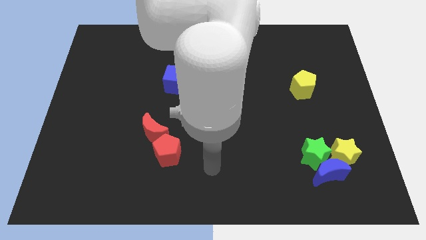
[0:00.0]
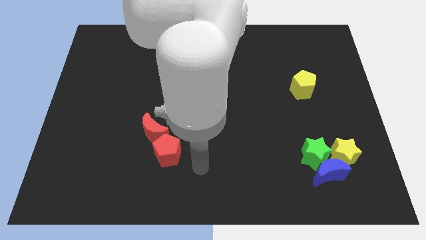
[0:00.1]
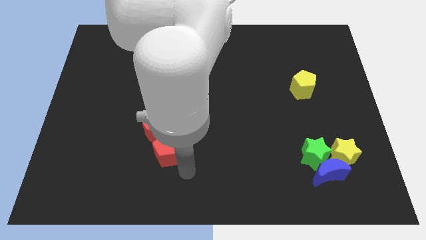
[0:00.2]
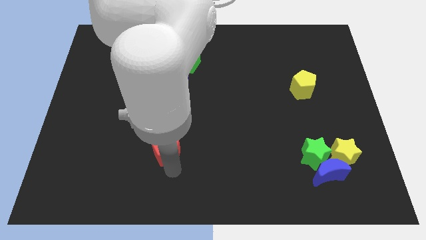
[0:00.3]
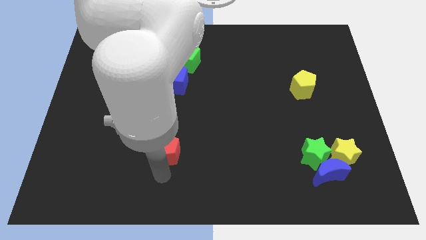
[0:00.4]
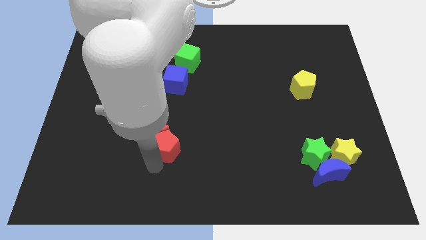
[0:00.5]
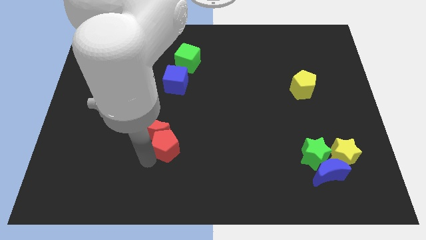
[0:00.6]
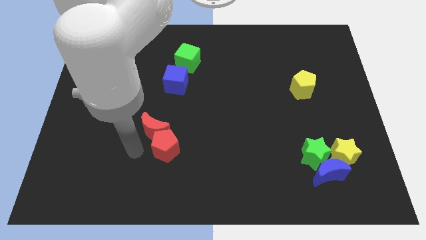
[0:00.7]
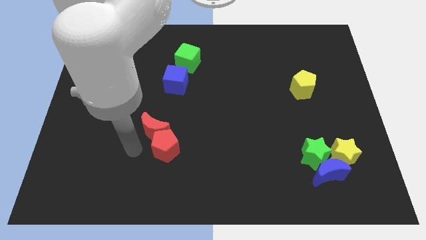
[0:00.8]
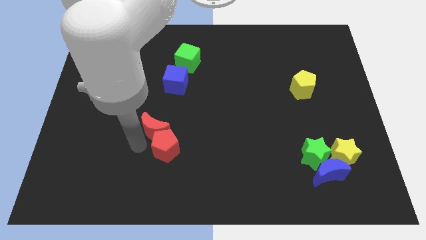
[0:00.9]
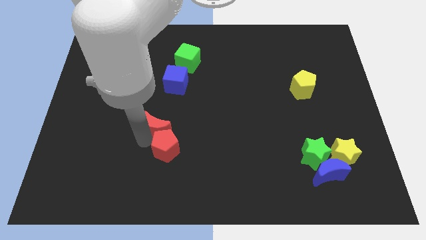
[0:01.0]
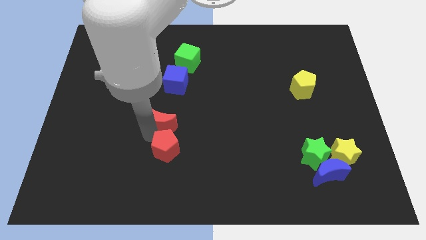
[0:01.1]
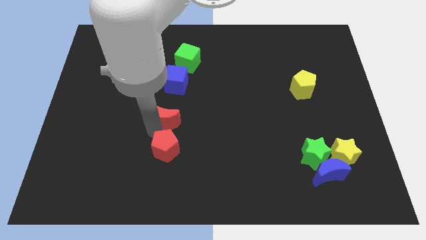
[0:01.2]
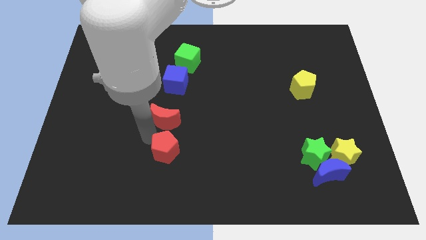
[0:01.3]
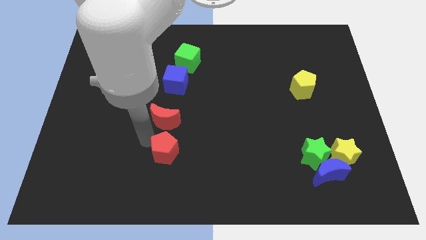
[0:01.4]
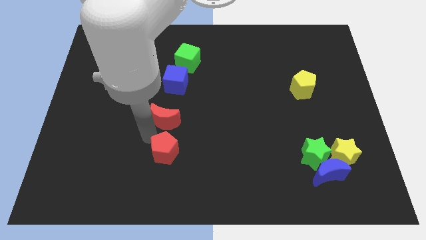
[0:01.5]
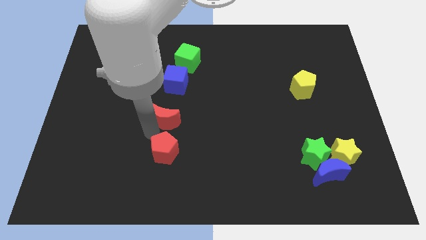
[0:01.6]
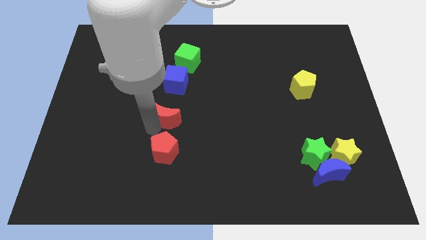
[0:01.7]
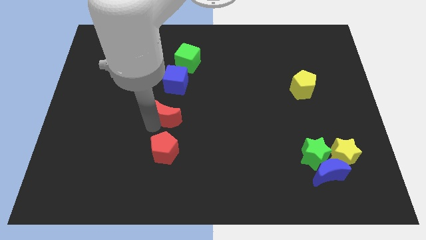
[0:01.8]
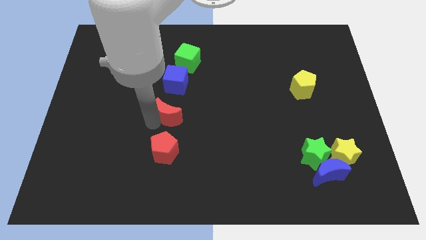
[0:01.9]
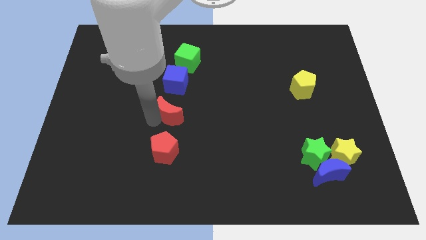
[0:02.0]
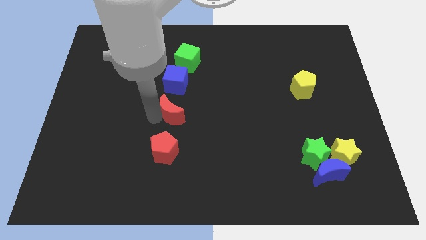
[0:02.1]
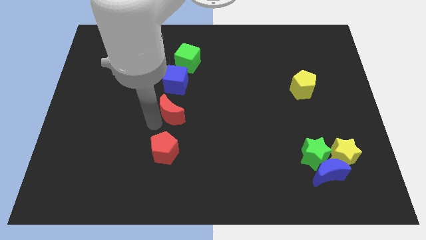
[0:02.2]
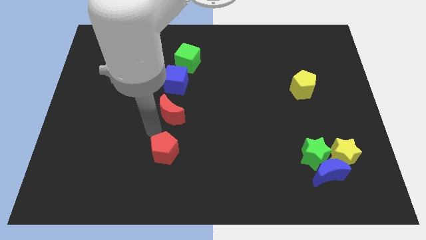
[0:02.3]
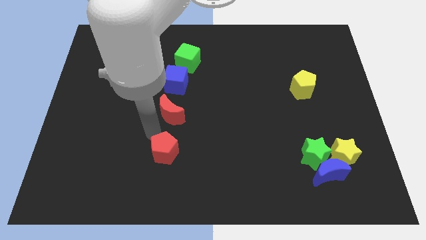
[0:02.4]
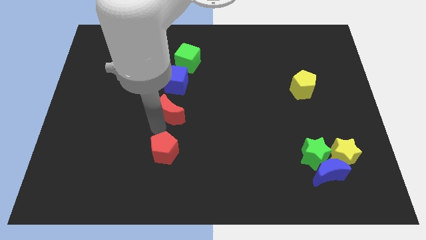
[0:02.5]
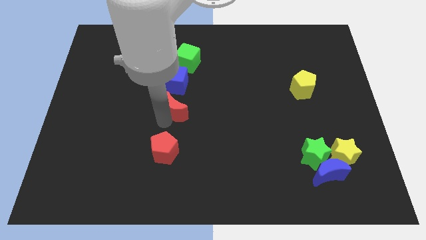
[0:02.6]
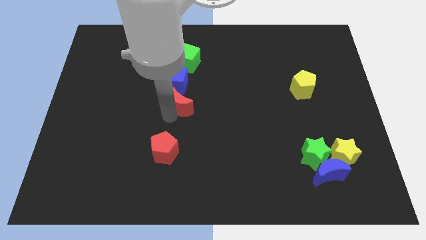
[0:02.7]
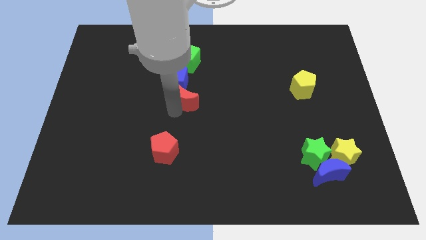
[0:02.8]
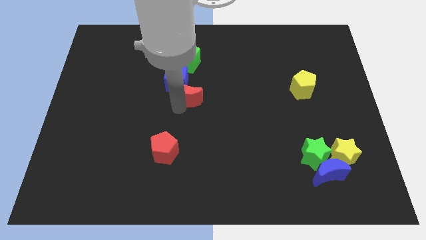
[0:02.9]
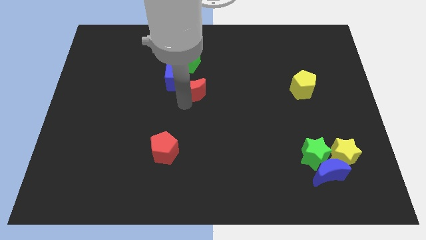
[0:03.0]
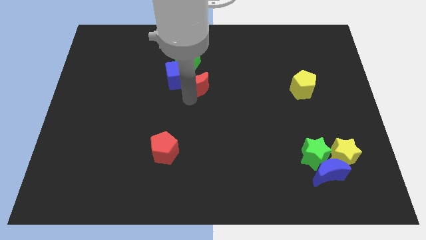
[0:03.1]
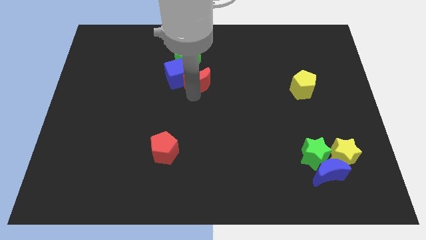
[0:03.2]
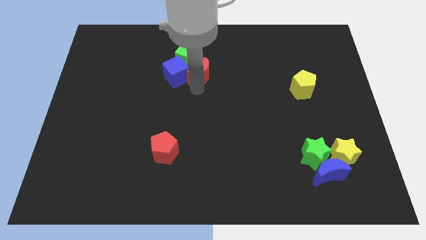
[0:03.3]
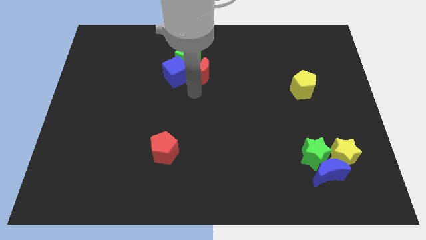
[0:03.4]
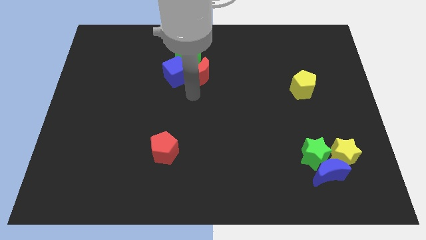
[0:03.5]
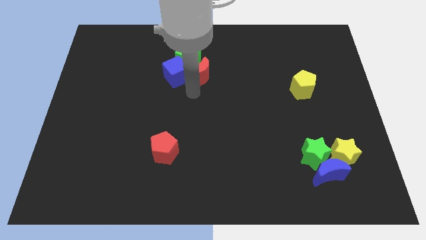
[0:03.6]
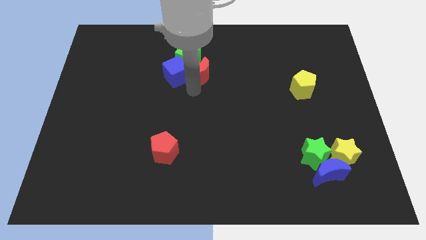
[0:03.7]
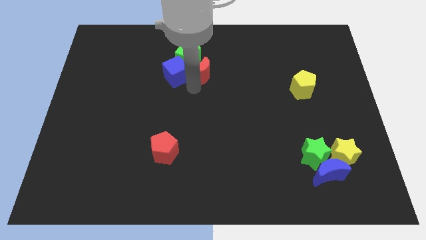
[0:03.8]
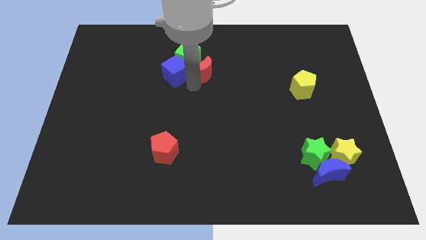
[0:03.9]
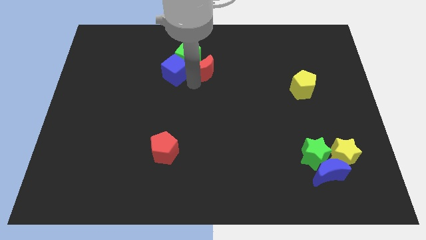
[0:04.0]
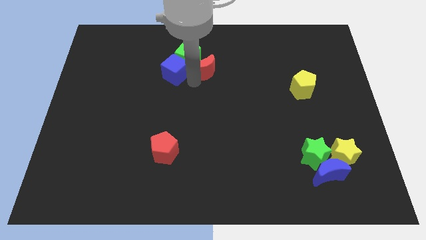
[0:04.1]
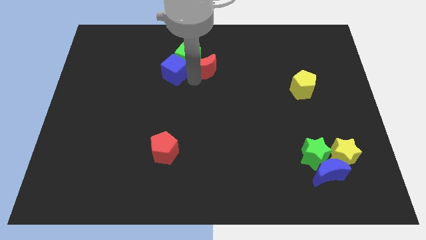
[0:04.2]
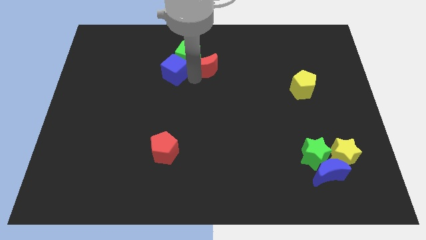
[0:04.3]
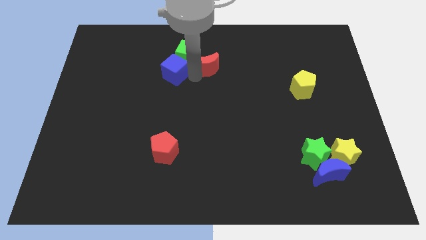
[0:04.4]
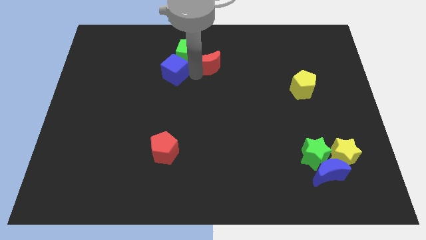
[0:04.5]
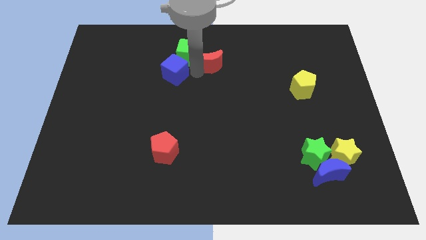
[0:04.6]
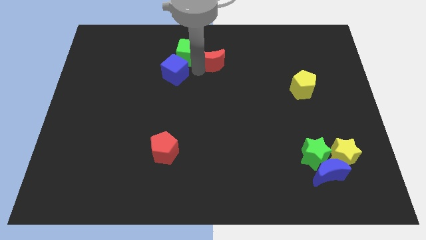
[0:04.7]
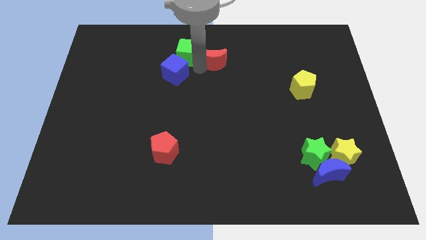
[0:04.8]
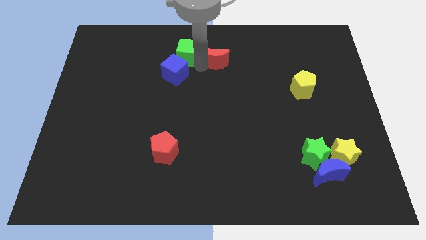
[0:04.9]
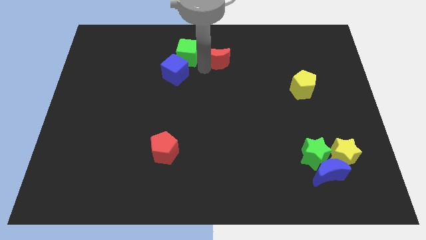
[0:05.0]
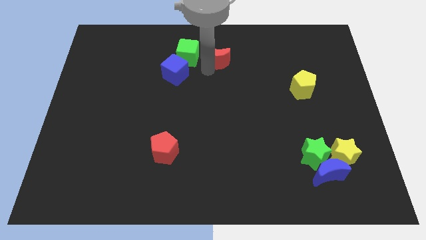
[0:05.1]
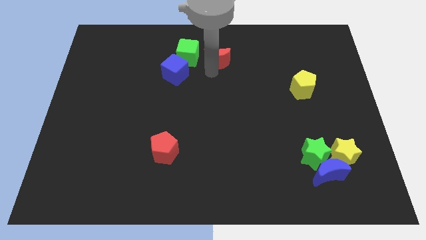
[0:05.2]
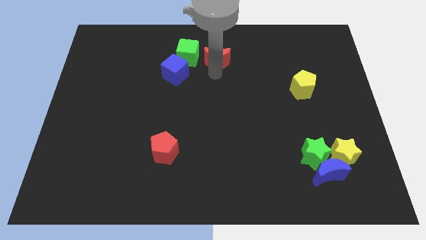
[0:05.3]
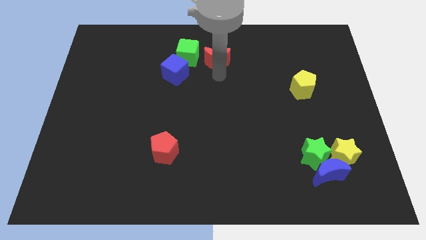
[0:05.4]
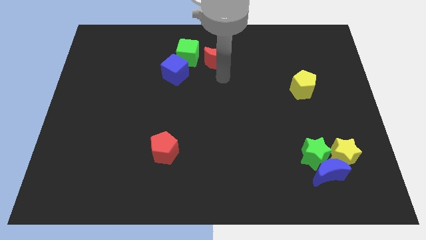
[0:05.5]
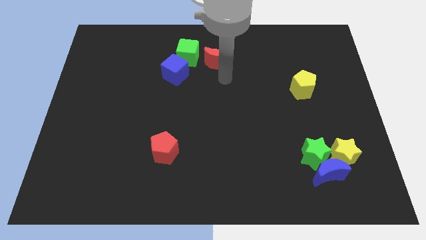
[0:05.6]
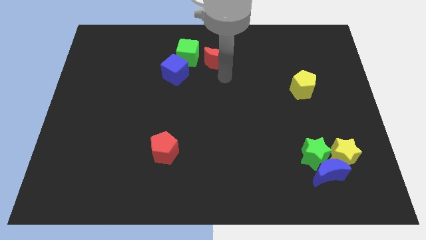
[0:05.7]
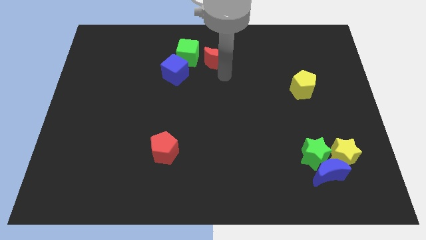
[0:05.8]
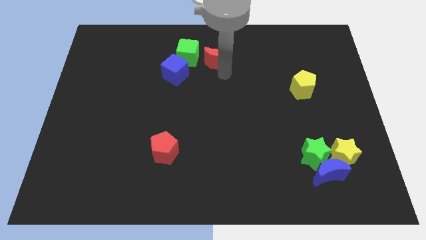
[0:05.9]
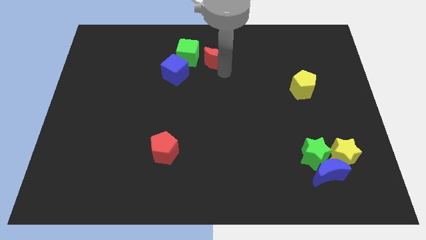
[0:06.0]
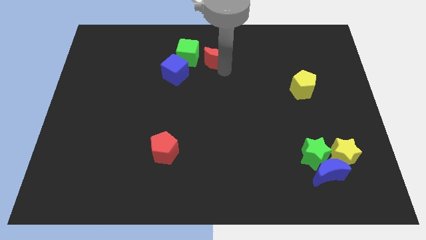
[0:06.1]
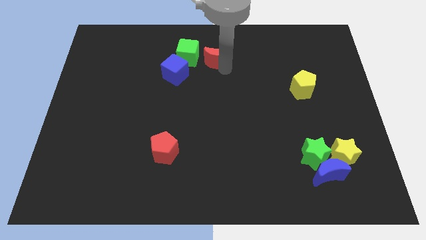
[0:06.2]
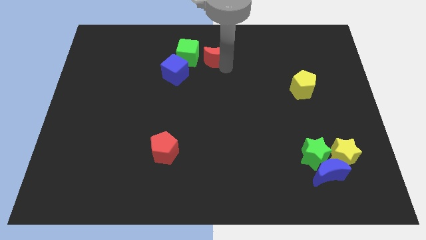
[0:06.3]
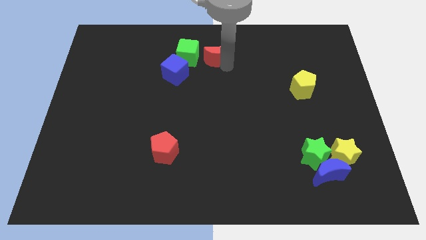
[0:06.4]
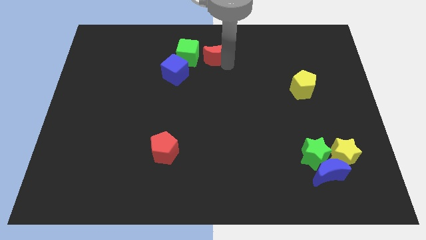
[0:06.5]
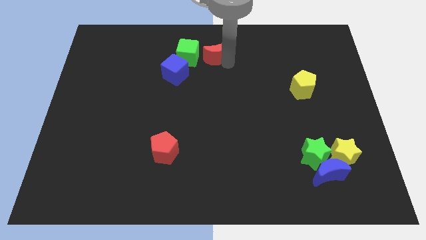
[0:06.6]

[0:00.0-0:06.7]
move the red moon to the top

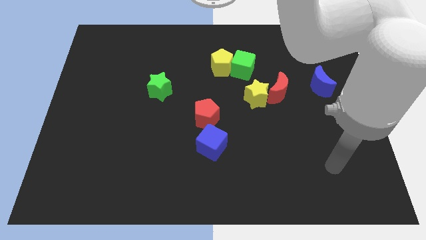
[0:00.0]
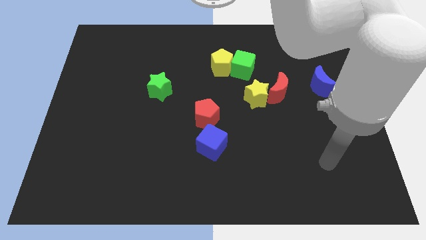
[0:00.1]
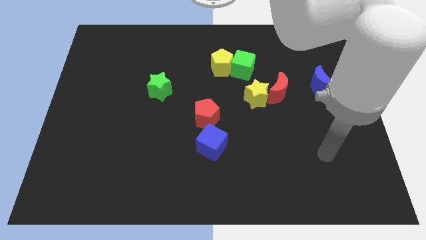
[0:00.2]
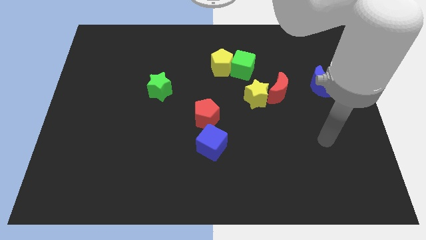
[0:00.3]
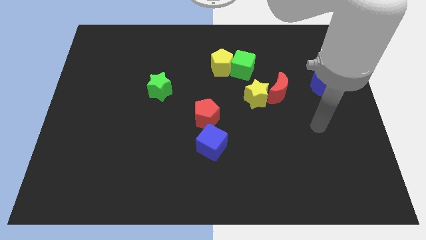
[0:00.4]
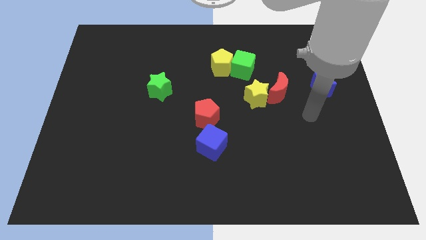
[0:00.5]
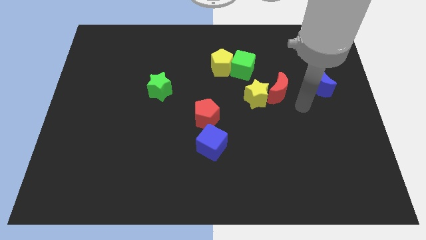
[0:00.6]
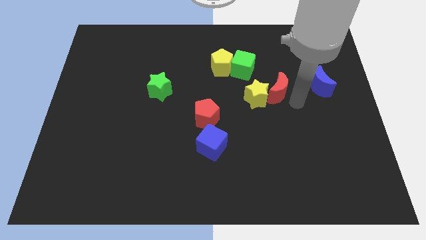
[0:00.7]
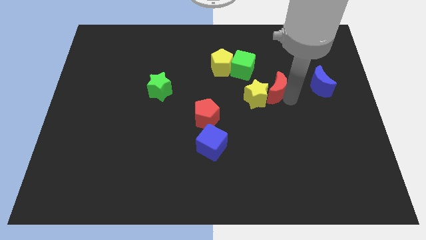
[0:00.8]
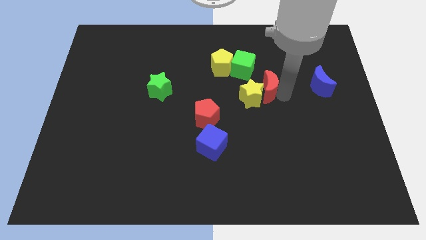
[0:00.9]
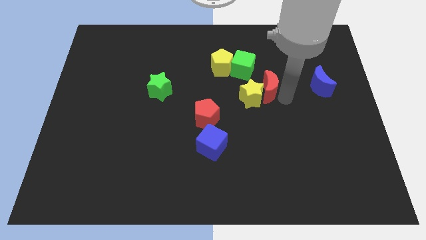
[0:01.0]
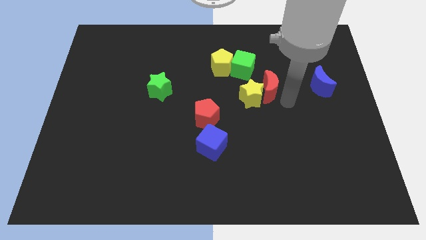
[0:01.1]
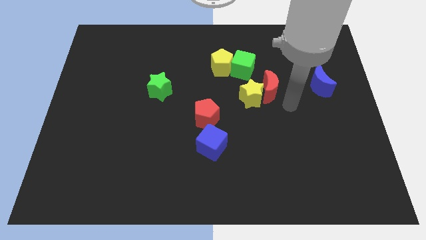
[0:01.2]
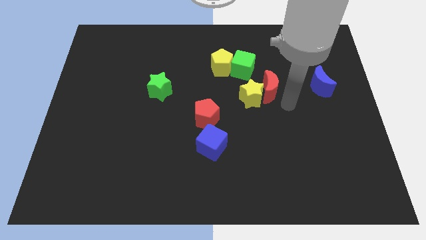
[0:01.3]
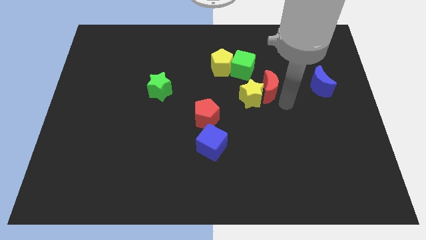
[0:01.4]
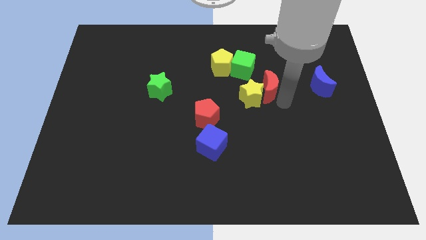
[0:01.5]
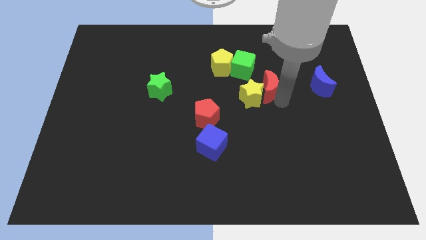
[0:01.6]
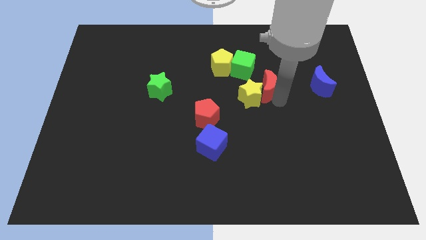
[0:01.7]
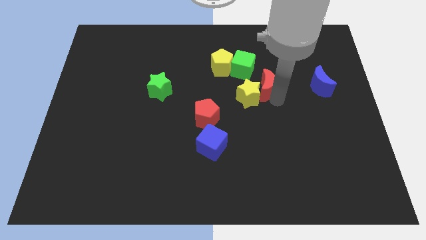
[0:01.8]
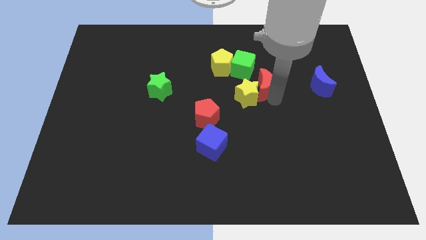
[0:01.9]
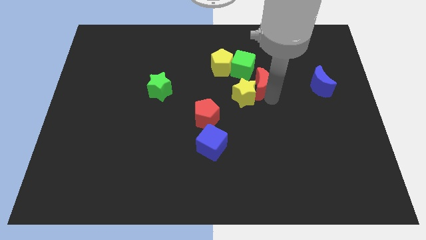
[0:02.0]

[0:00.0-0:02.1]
push the red moon to the center
